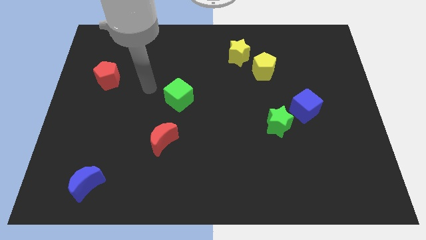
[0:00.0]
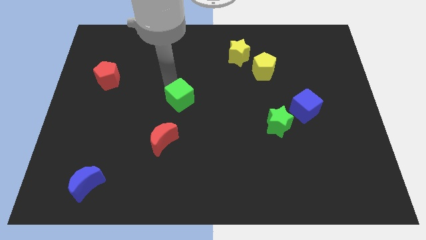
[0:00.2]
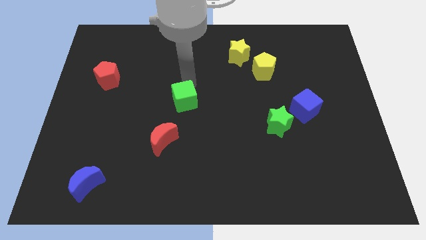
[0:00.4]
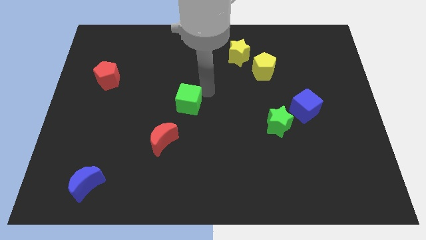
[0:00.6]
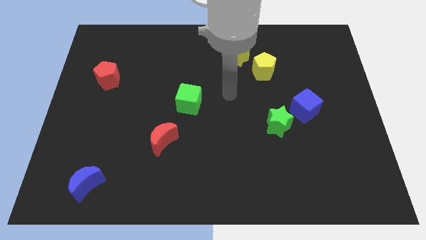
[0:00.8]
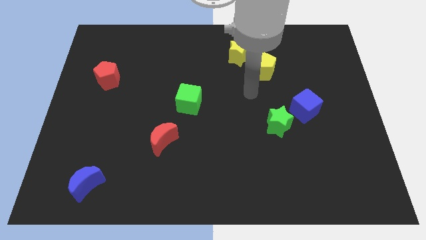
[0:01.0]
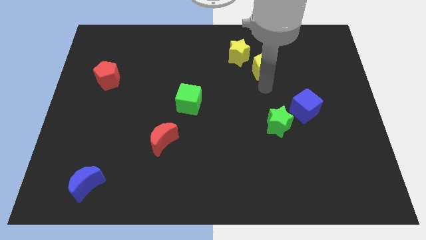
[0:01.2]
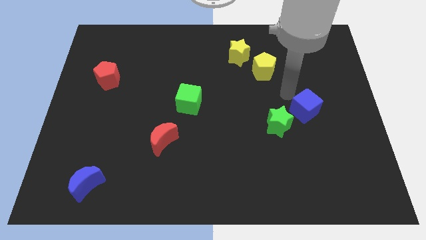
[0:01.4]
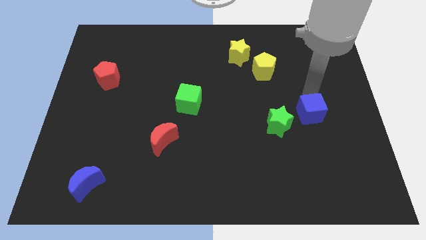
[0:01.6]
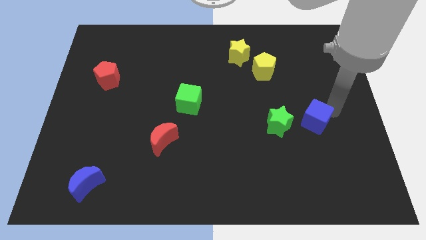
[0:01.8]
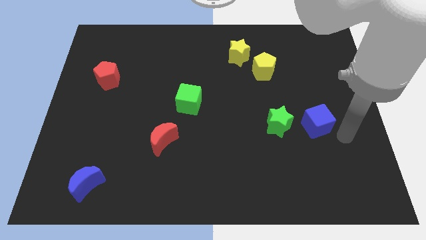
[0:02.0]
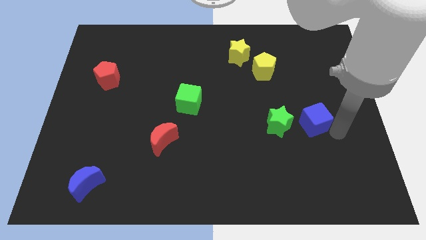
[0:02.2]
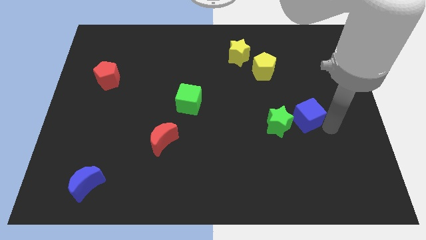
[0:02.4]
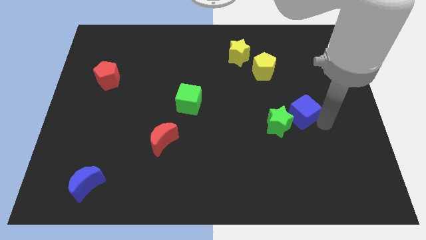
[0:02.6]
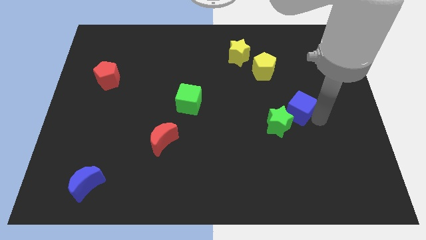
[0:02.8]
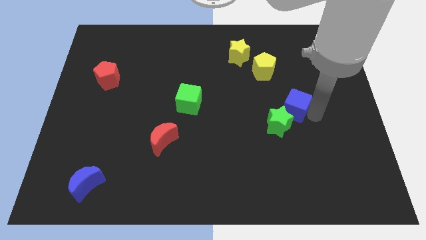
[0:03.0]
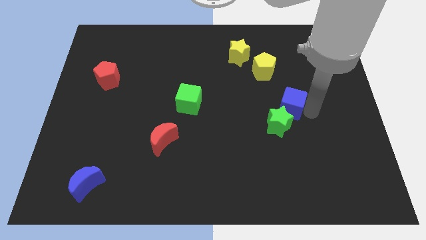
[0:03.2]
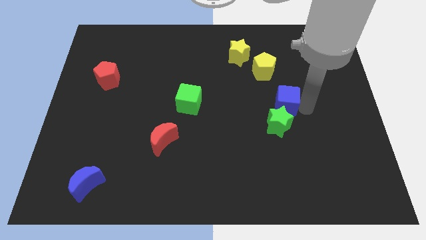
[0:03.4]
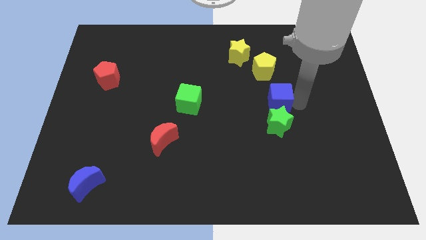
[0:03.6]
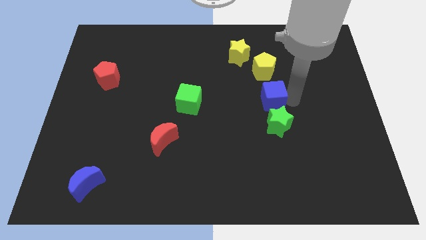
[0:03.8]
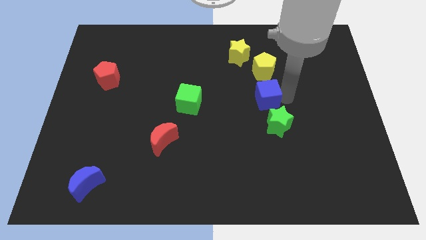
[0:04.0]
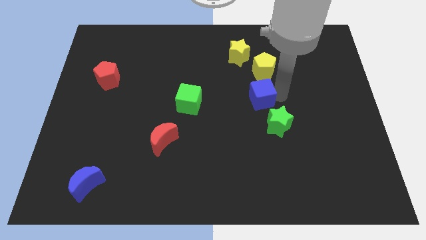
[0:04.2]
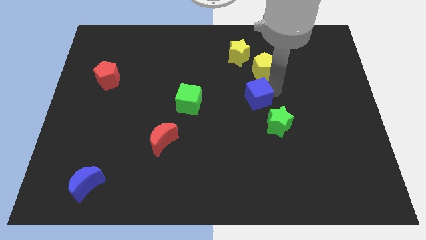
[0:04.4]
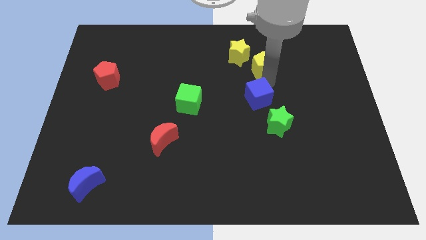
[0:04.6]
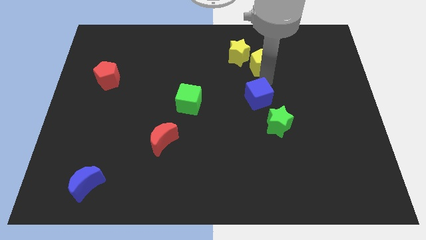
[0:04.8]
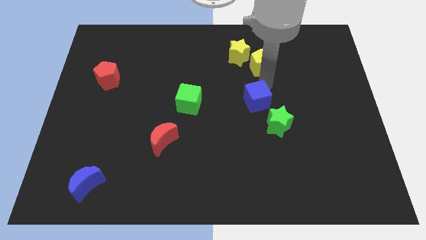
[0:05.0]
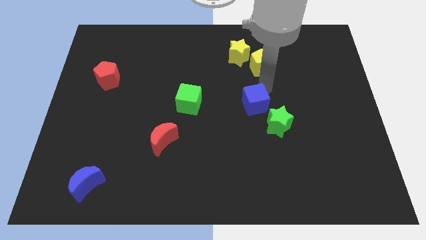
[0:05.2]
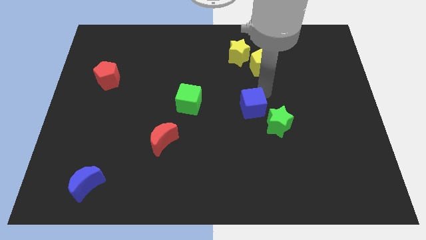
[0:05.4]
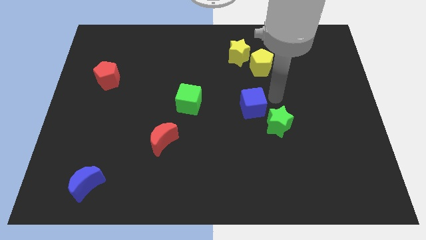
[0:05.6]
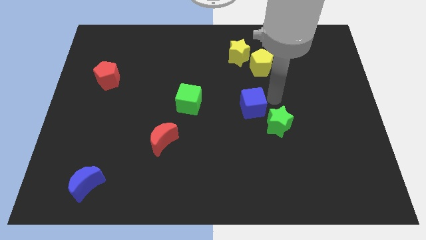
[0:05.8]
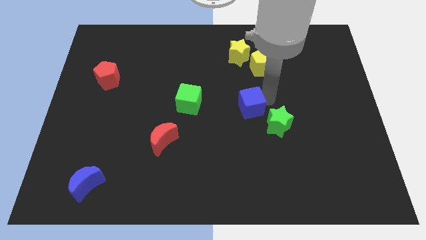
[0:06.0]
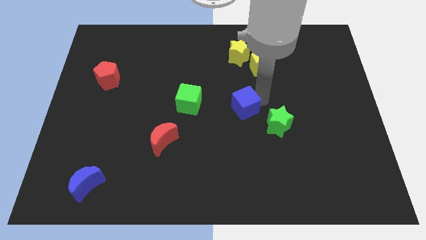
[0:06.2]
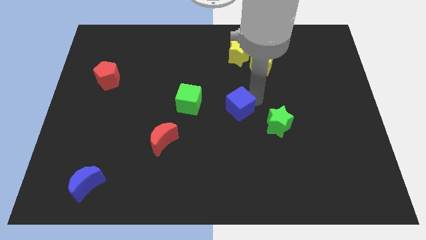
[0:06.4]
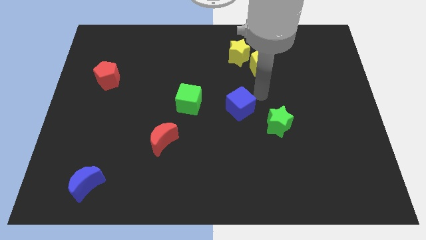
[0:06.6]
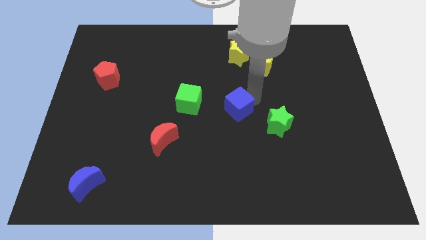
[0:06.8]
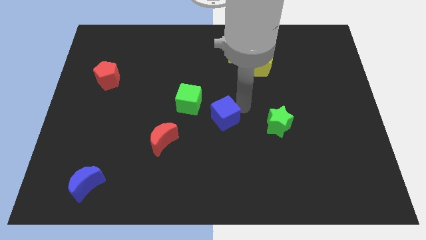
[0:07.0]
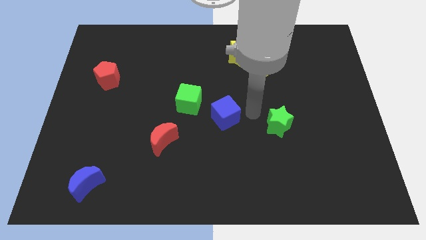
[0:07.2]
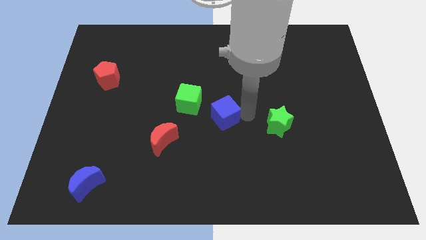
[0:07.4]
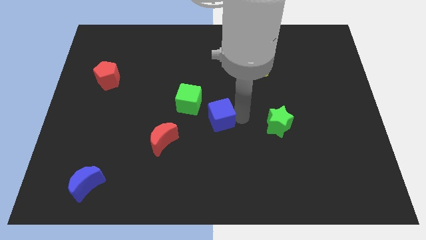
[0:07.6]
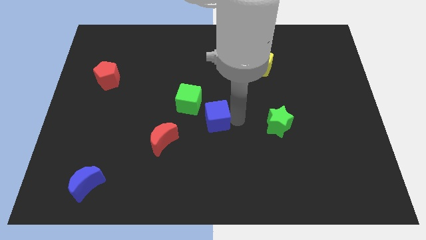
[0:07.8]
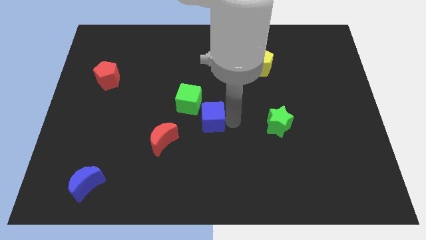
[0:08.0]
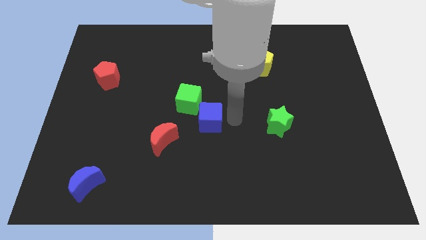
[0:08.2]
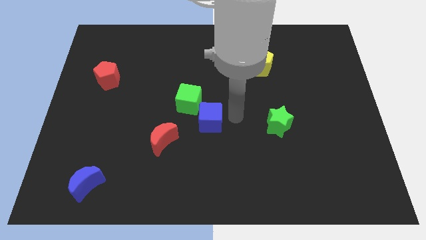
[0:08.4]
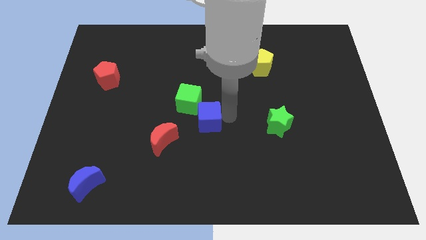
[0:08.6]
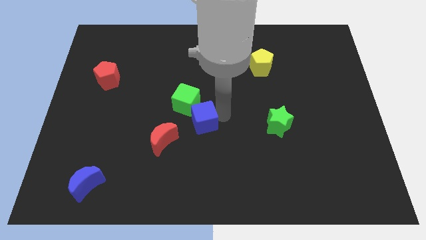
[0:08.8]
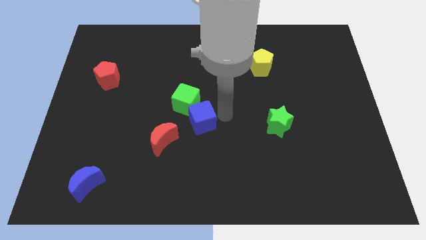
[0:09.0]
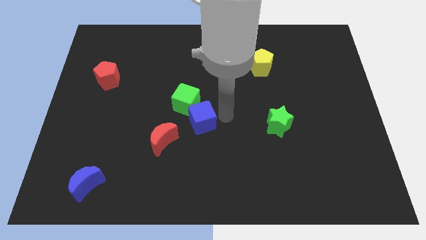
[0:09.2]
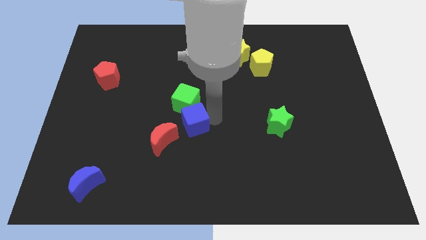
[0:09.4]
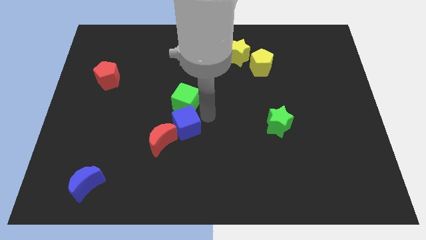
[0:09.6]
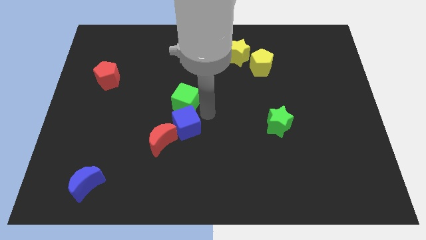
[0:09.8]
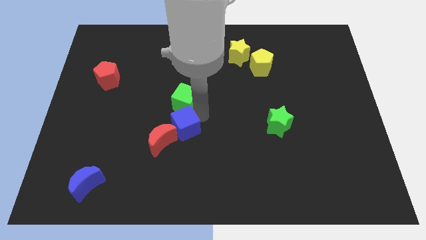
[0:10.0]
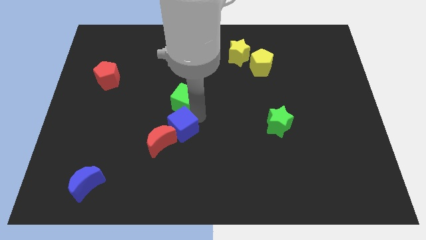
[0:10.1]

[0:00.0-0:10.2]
put the blue cube next to the red moon
